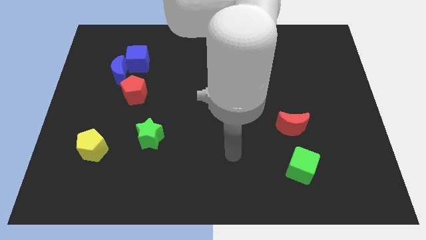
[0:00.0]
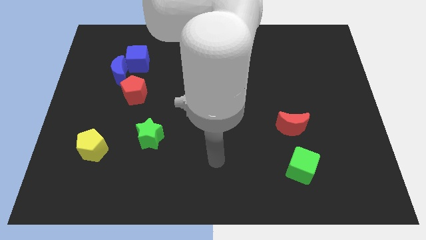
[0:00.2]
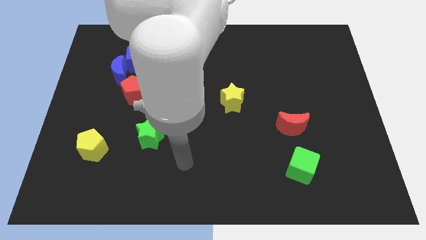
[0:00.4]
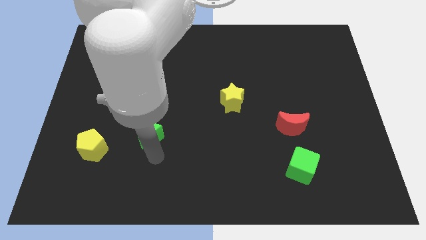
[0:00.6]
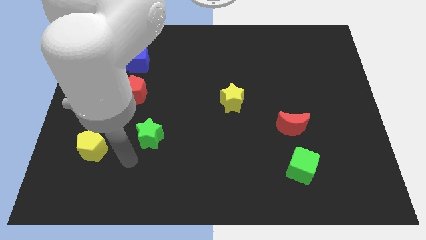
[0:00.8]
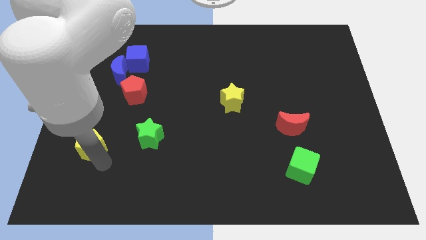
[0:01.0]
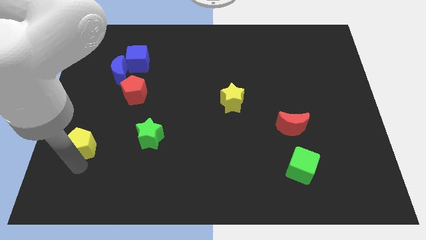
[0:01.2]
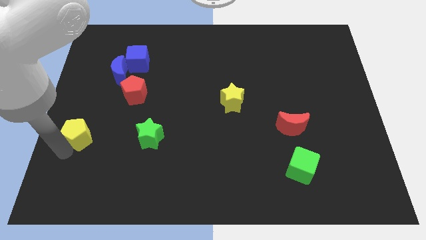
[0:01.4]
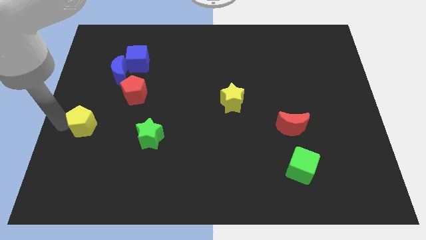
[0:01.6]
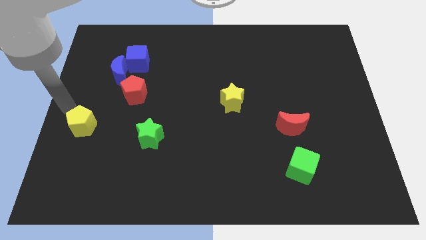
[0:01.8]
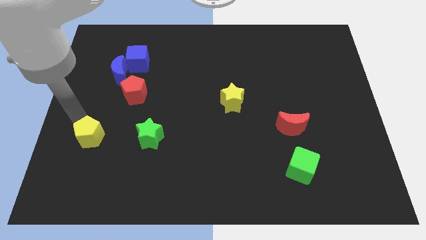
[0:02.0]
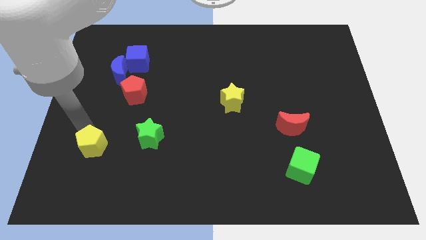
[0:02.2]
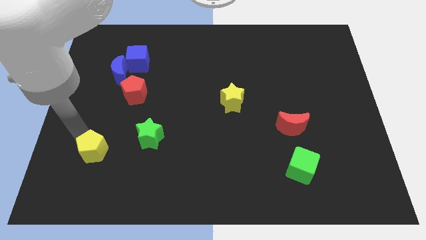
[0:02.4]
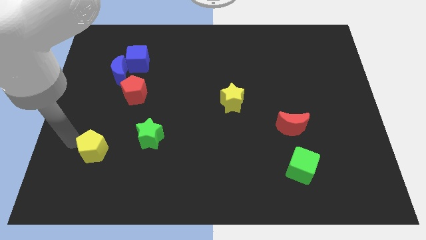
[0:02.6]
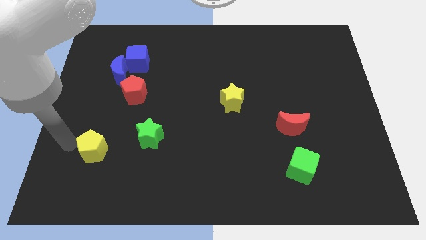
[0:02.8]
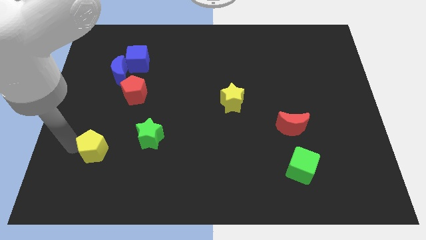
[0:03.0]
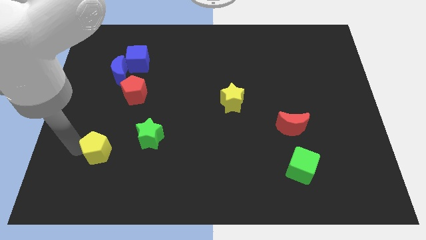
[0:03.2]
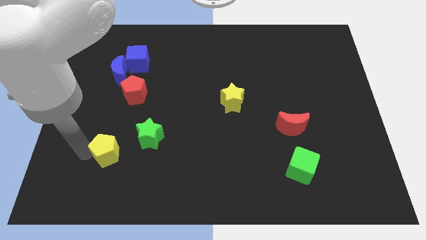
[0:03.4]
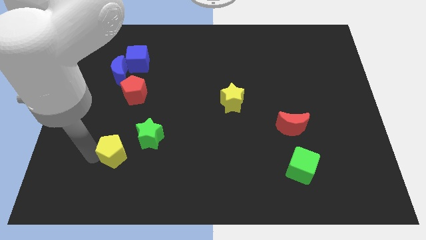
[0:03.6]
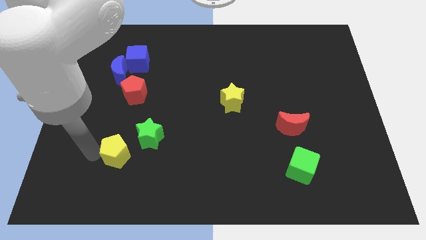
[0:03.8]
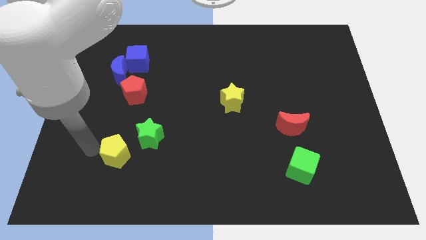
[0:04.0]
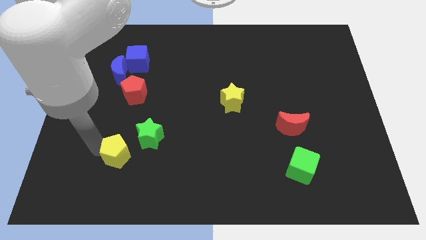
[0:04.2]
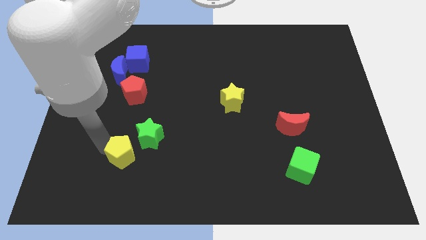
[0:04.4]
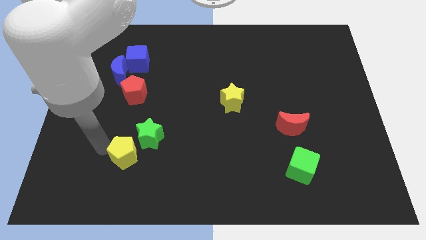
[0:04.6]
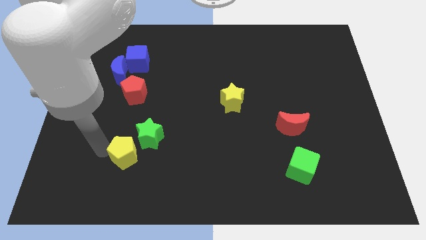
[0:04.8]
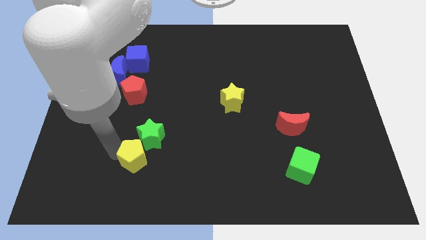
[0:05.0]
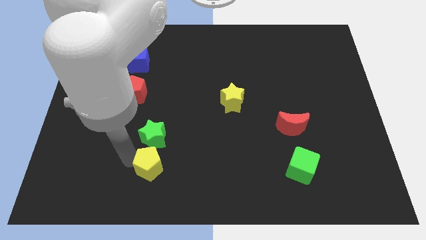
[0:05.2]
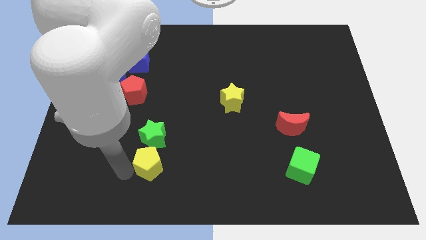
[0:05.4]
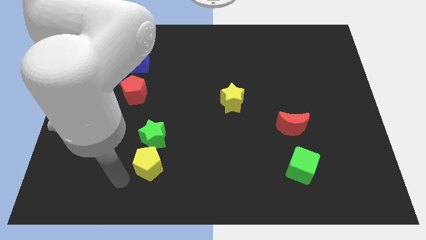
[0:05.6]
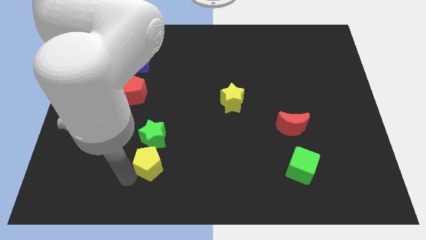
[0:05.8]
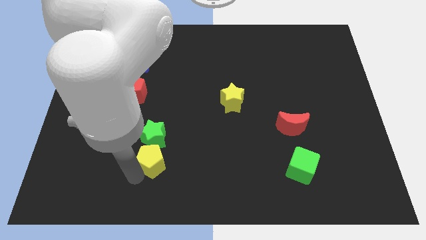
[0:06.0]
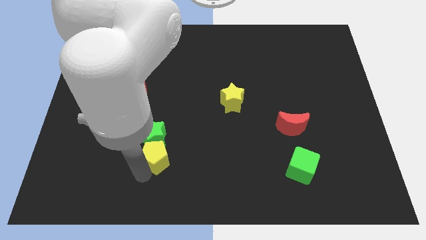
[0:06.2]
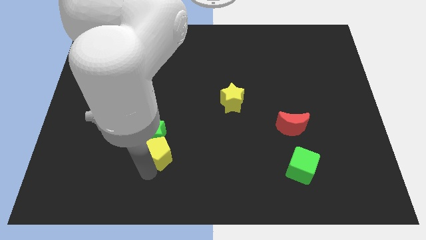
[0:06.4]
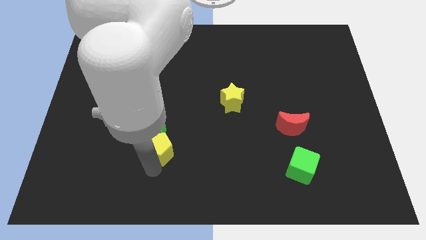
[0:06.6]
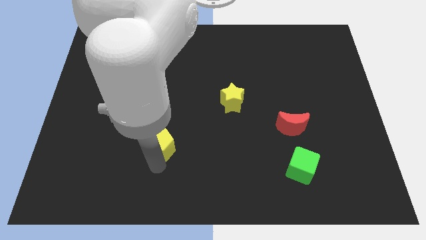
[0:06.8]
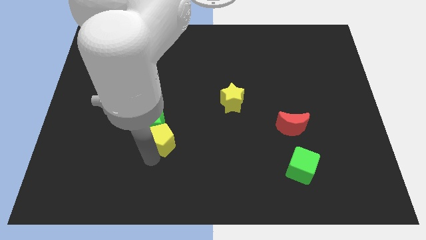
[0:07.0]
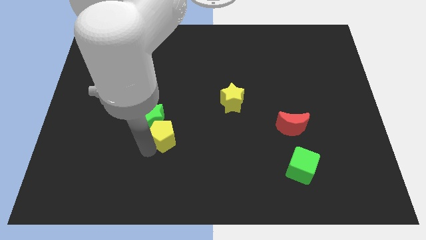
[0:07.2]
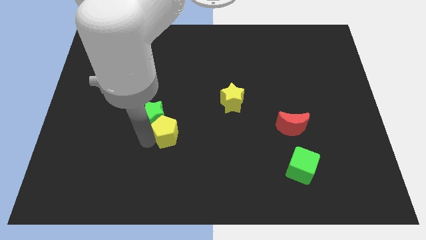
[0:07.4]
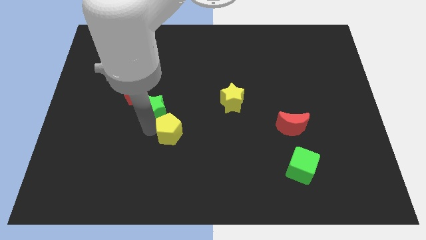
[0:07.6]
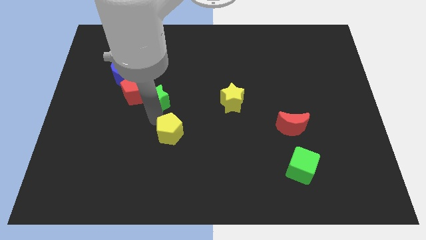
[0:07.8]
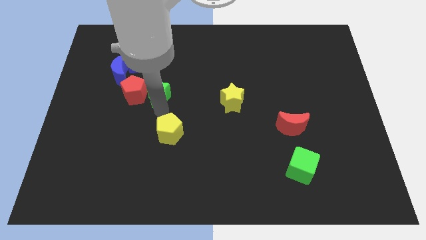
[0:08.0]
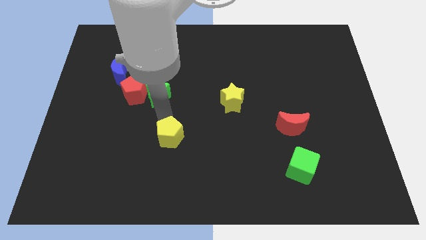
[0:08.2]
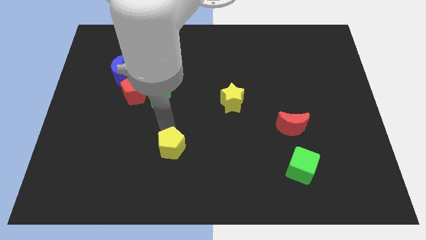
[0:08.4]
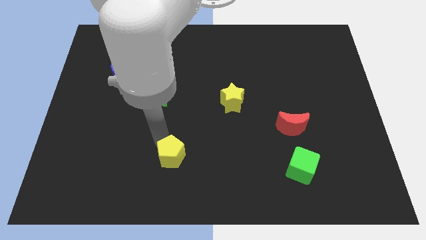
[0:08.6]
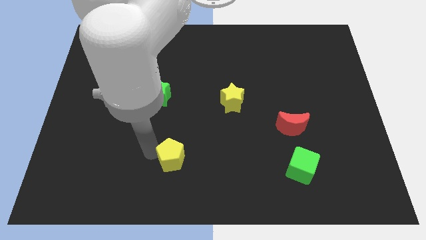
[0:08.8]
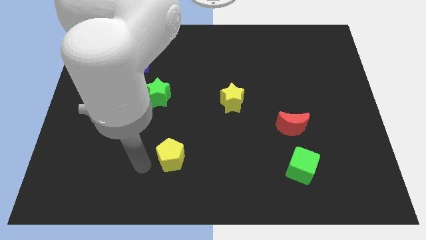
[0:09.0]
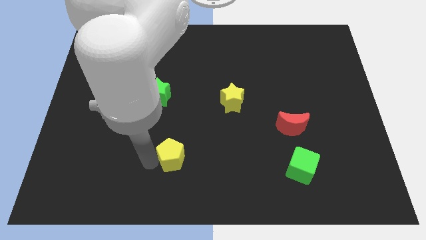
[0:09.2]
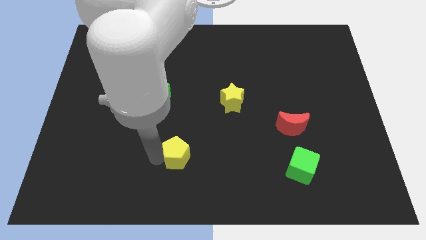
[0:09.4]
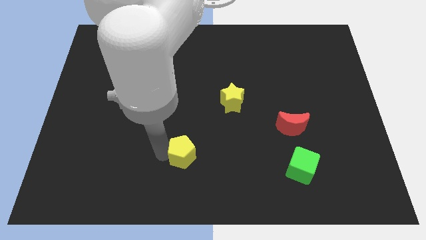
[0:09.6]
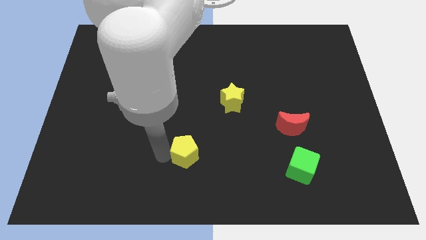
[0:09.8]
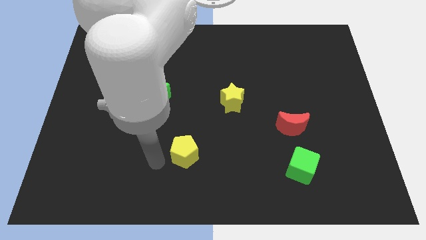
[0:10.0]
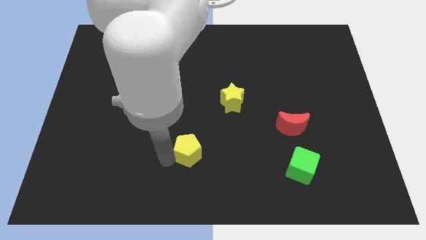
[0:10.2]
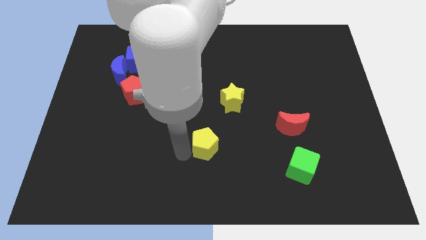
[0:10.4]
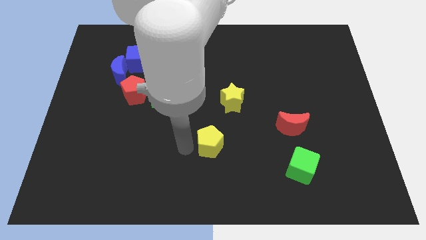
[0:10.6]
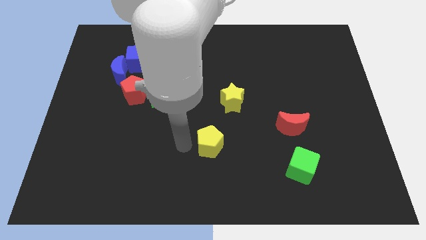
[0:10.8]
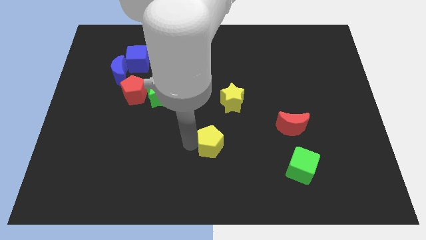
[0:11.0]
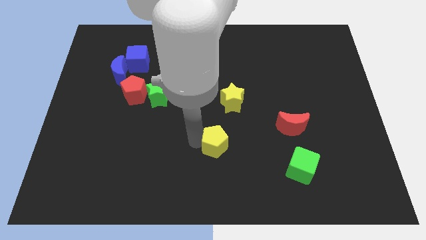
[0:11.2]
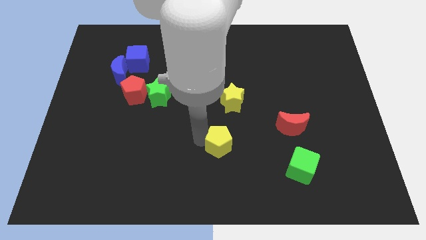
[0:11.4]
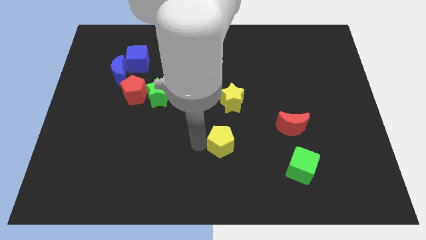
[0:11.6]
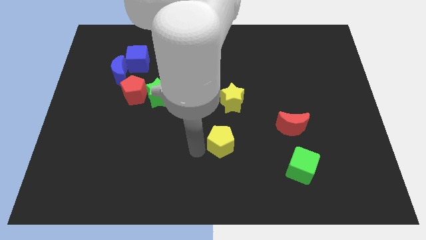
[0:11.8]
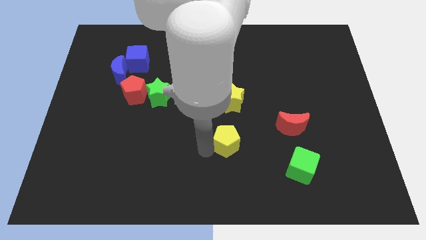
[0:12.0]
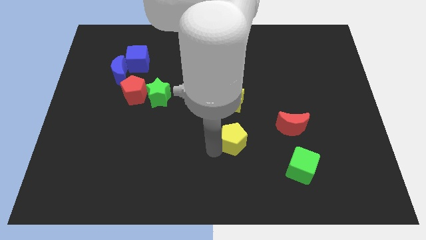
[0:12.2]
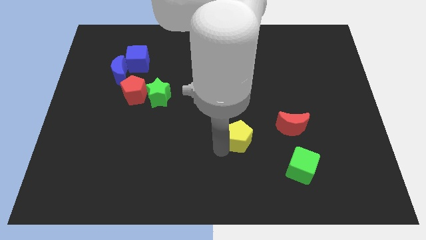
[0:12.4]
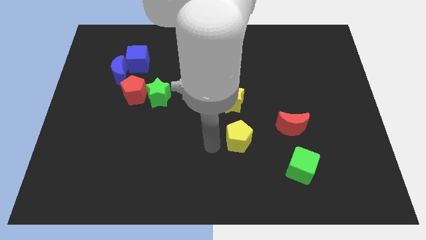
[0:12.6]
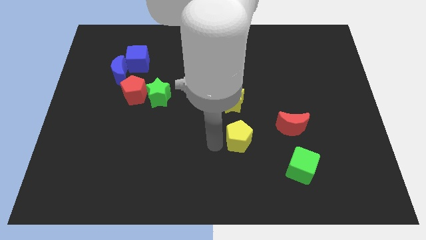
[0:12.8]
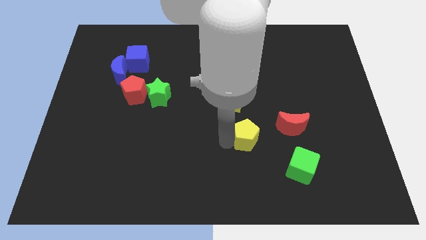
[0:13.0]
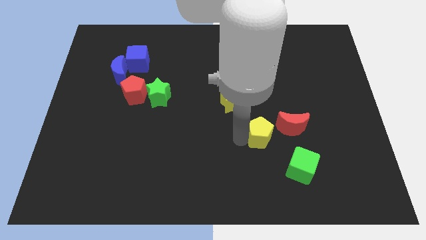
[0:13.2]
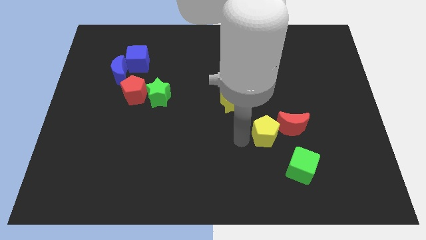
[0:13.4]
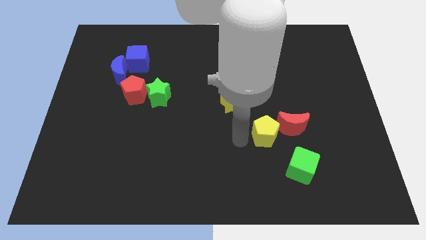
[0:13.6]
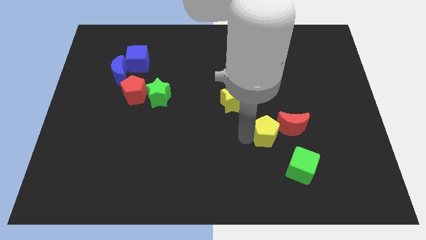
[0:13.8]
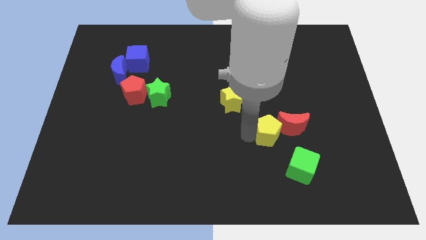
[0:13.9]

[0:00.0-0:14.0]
push the yellow pentagon to the red moon

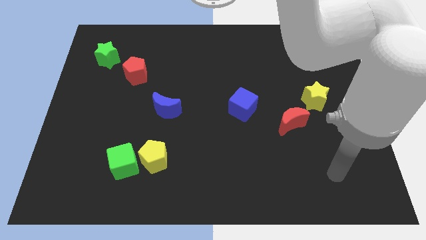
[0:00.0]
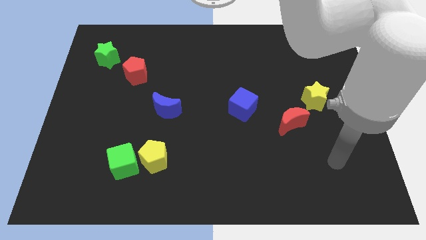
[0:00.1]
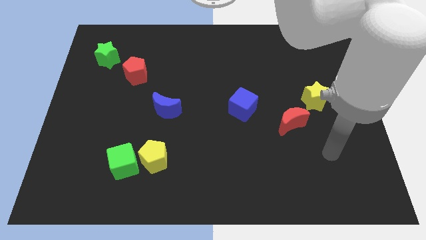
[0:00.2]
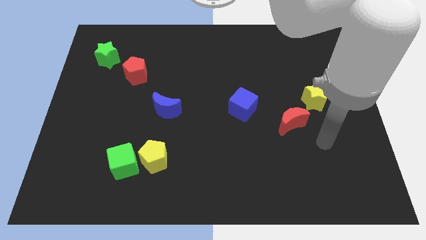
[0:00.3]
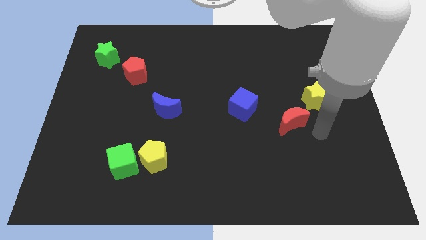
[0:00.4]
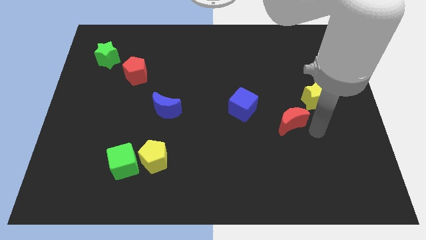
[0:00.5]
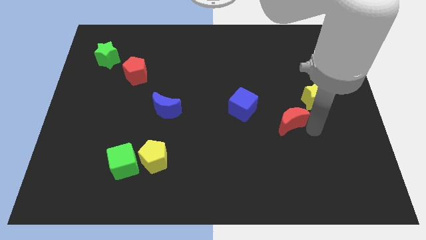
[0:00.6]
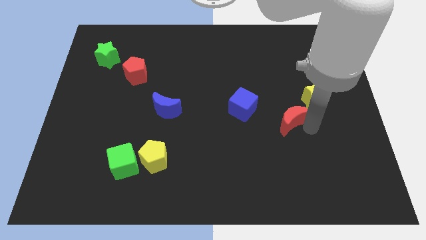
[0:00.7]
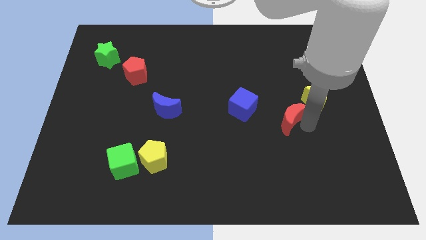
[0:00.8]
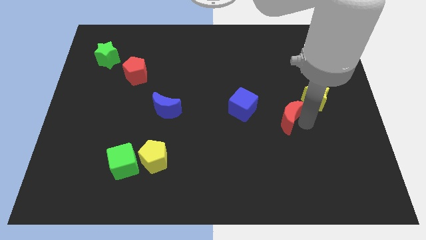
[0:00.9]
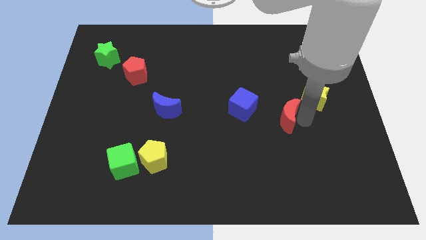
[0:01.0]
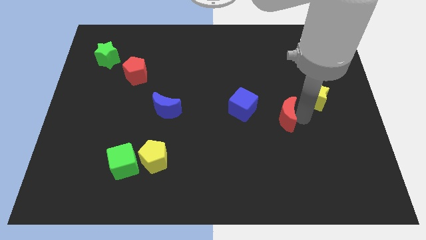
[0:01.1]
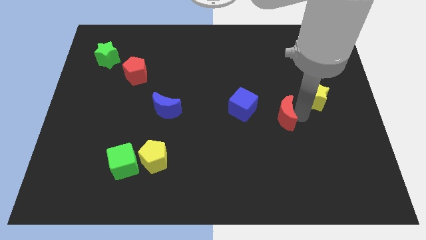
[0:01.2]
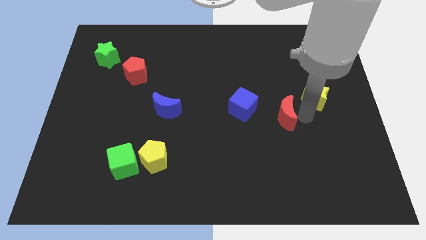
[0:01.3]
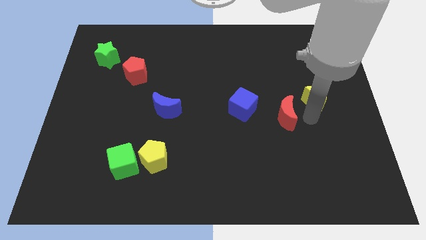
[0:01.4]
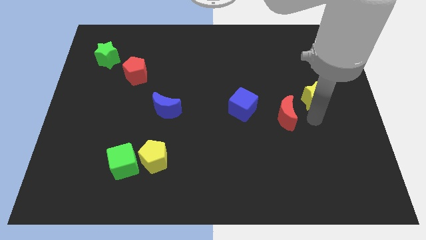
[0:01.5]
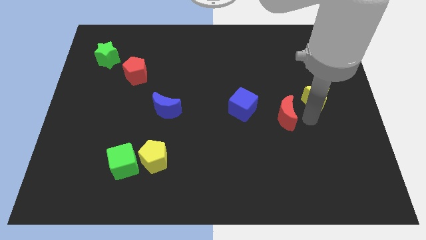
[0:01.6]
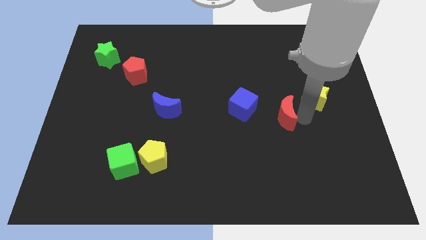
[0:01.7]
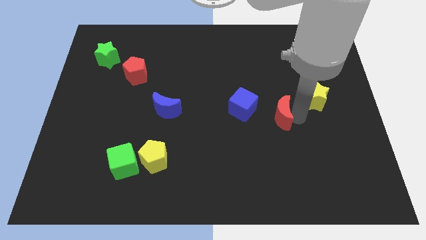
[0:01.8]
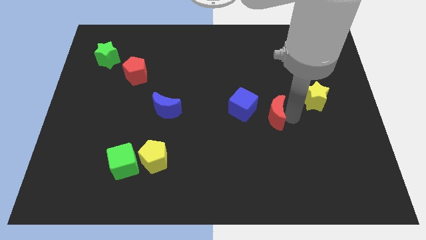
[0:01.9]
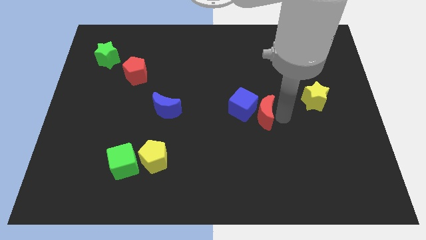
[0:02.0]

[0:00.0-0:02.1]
move the red moon next to the blue cube
